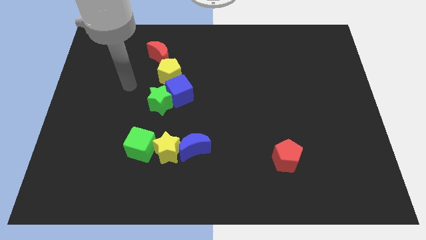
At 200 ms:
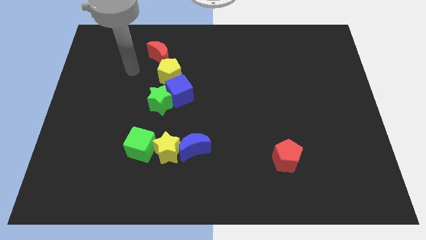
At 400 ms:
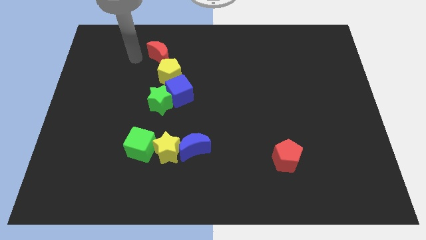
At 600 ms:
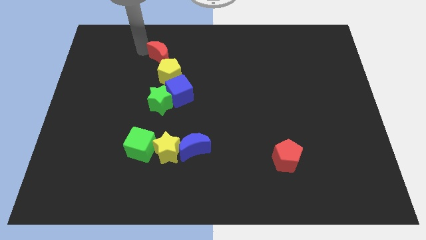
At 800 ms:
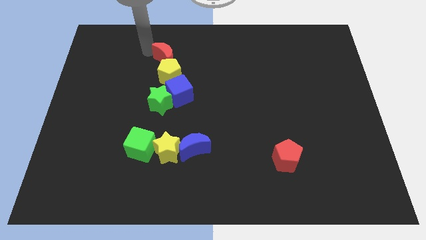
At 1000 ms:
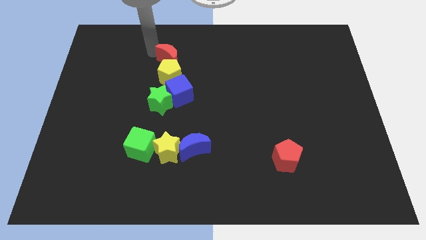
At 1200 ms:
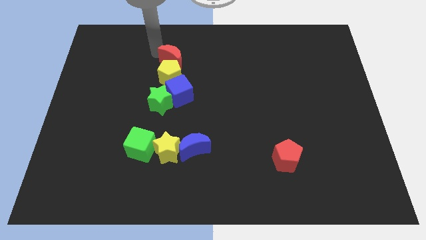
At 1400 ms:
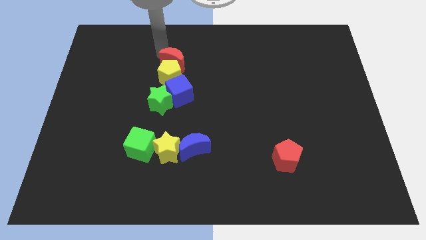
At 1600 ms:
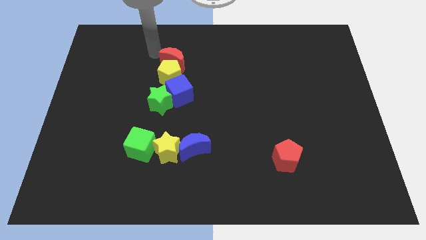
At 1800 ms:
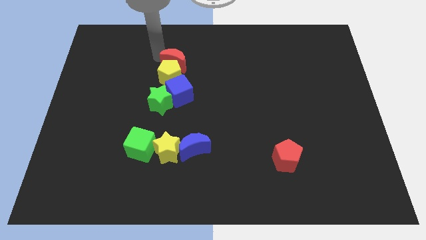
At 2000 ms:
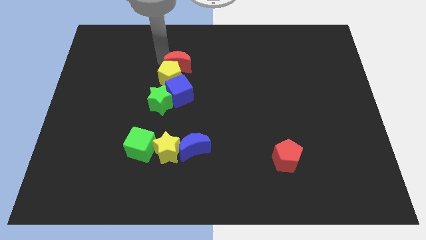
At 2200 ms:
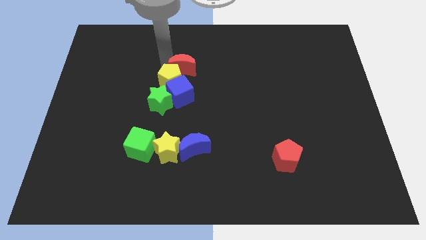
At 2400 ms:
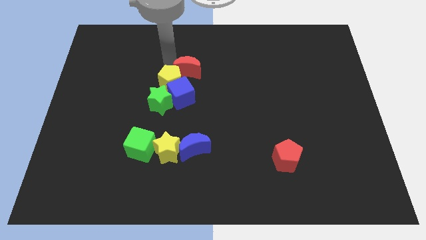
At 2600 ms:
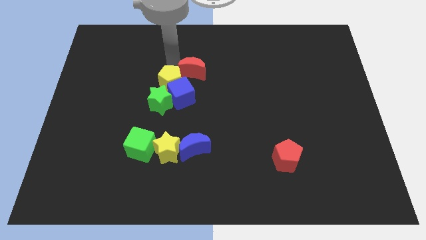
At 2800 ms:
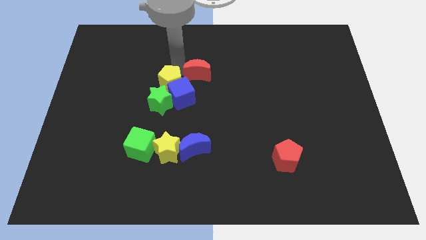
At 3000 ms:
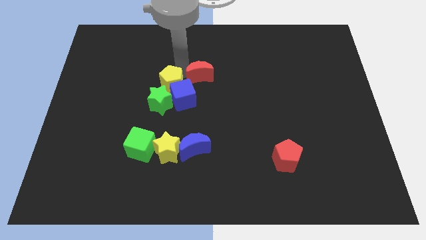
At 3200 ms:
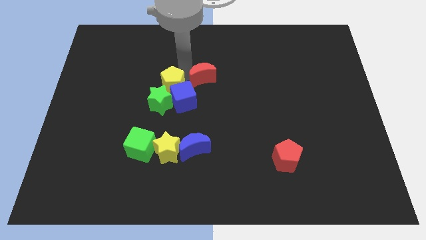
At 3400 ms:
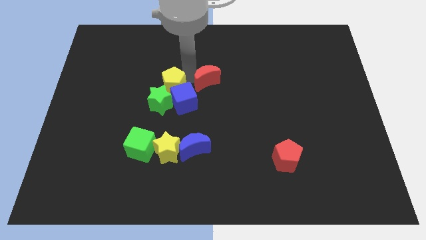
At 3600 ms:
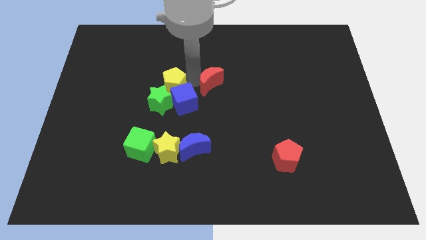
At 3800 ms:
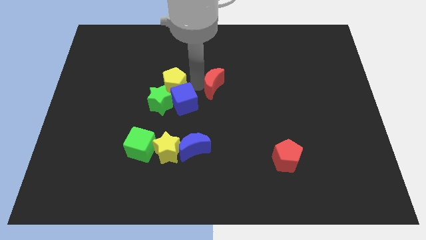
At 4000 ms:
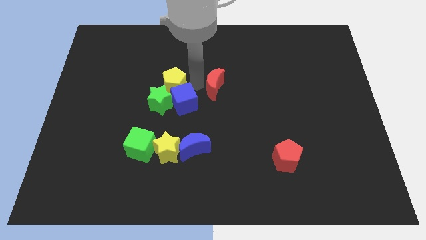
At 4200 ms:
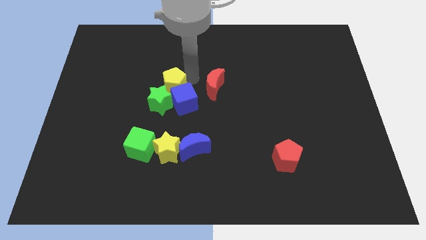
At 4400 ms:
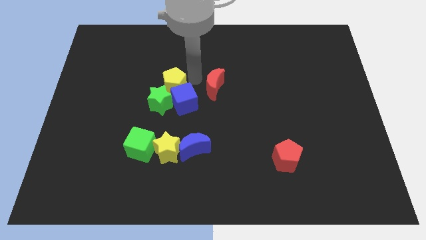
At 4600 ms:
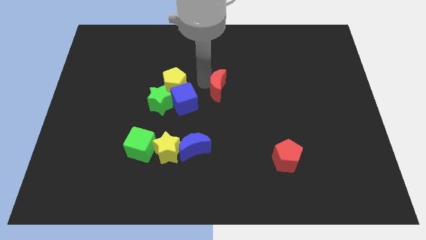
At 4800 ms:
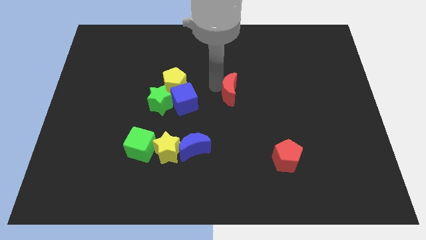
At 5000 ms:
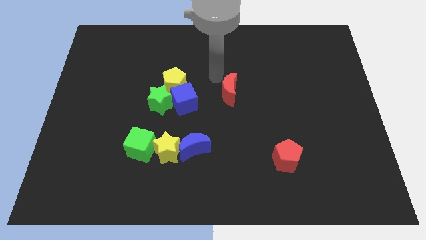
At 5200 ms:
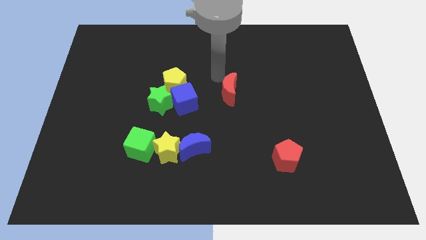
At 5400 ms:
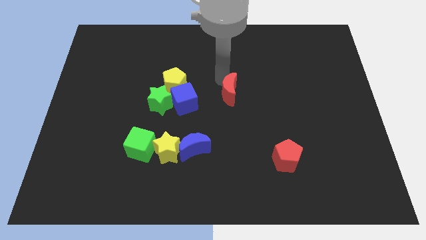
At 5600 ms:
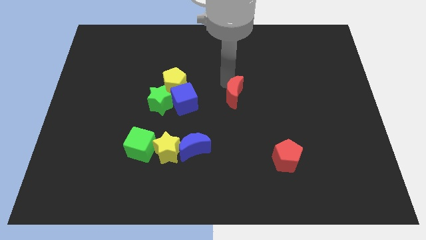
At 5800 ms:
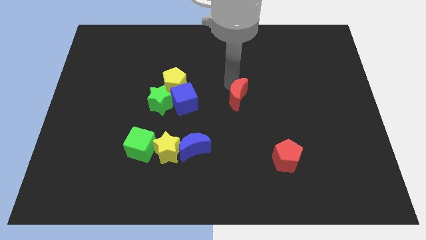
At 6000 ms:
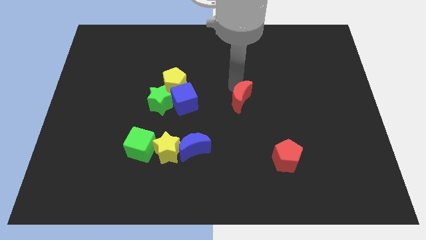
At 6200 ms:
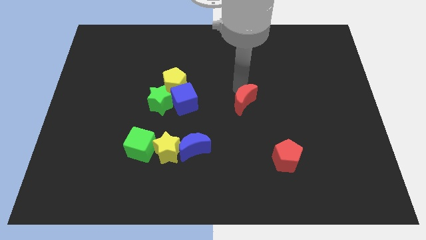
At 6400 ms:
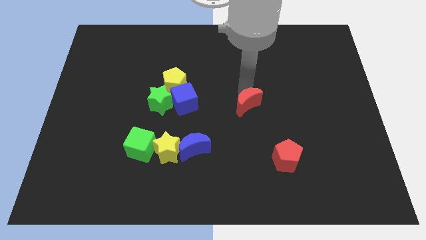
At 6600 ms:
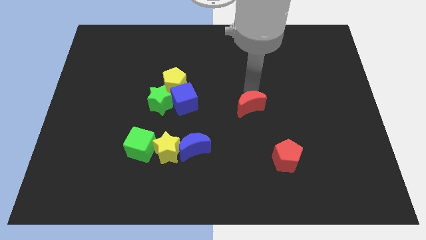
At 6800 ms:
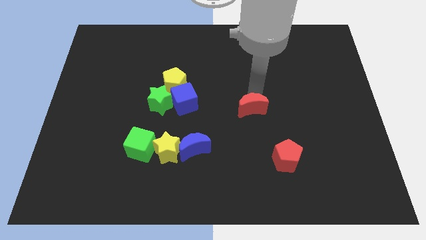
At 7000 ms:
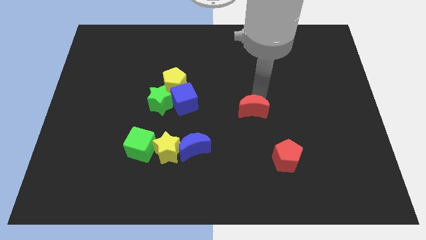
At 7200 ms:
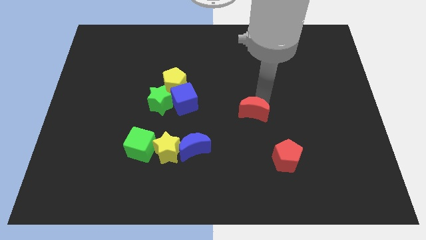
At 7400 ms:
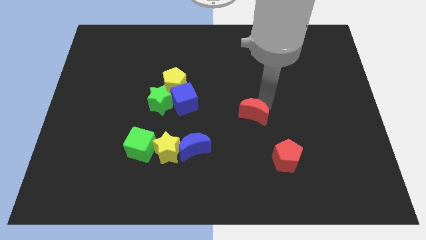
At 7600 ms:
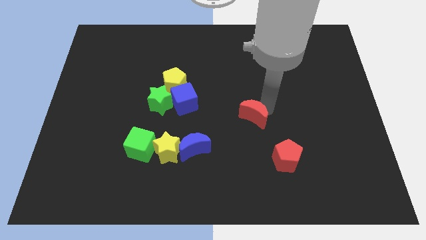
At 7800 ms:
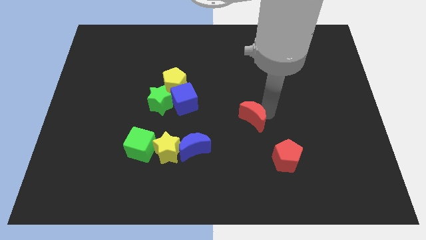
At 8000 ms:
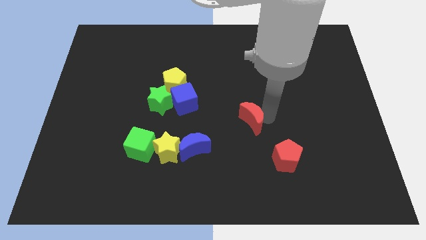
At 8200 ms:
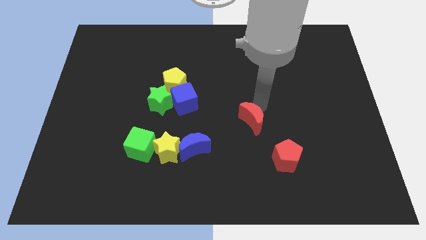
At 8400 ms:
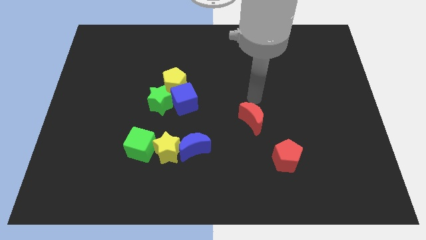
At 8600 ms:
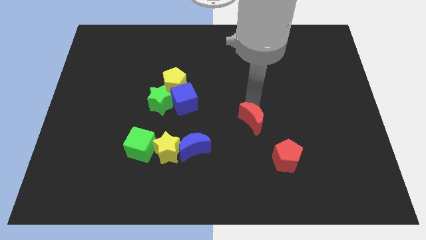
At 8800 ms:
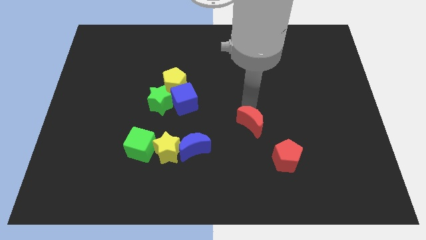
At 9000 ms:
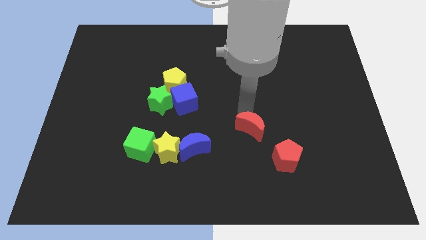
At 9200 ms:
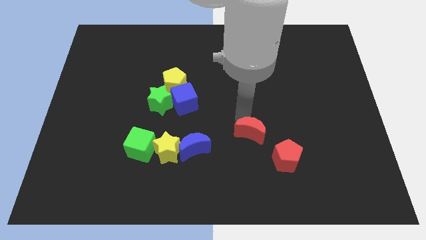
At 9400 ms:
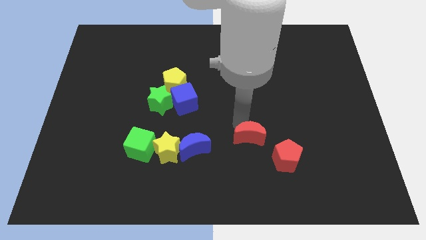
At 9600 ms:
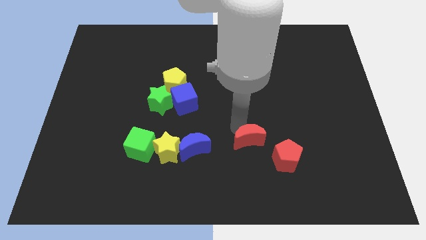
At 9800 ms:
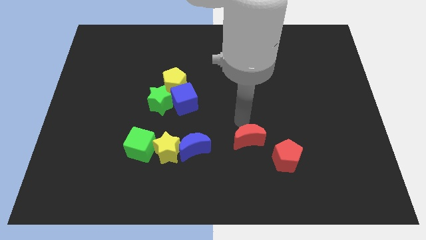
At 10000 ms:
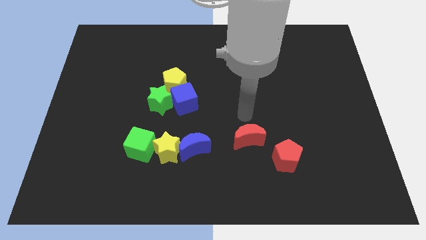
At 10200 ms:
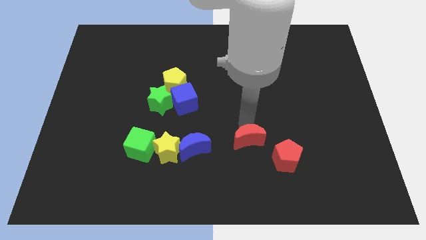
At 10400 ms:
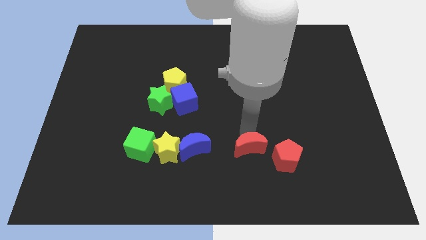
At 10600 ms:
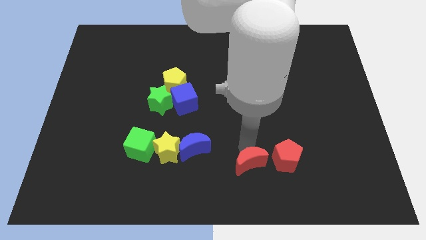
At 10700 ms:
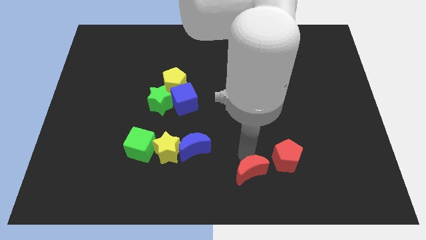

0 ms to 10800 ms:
push the red moon diagonally down and to the left of the red pentagon
